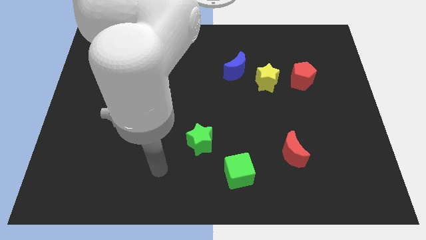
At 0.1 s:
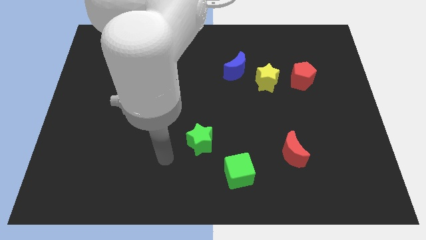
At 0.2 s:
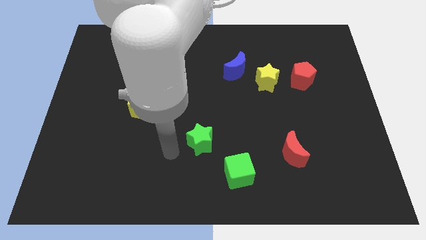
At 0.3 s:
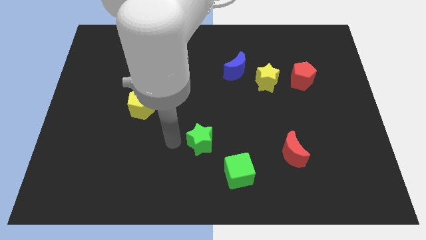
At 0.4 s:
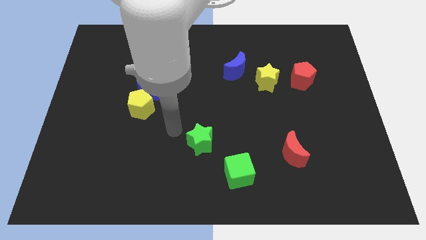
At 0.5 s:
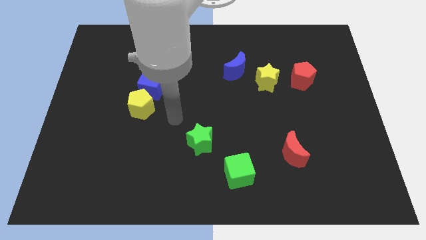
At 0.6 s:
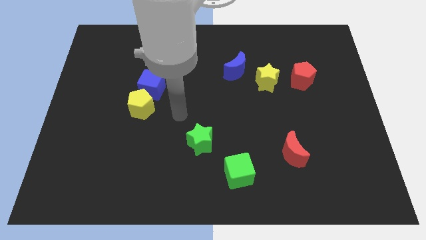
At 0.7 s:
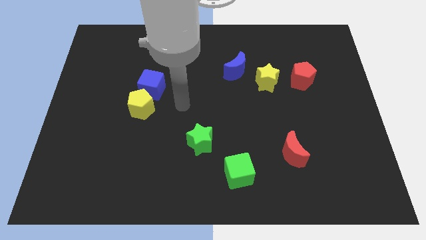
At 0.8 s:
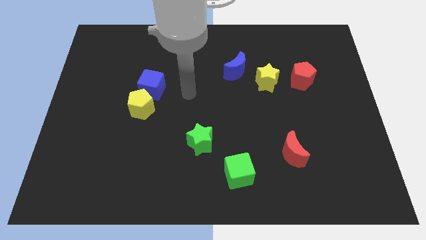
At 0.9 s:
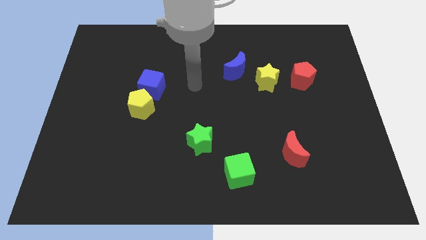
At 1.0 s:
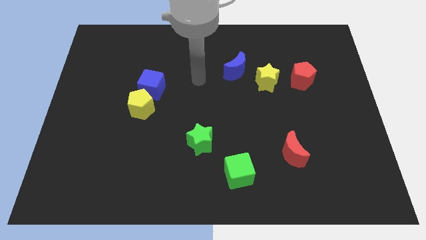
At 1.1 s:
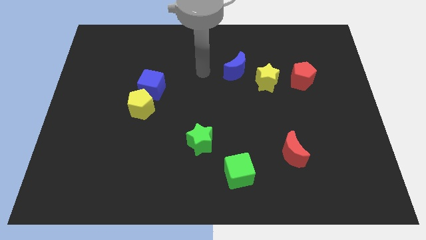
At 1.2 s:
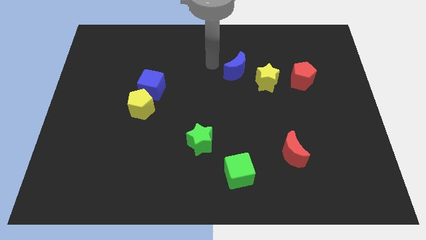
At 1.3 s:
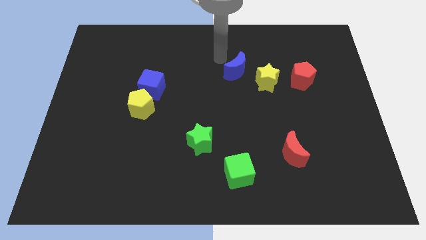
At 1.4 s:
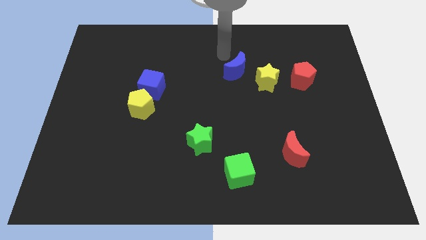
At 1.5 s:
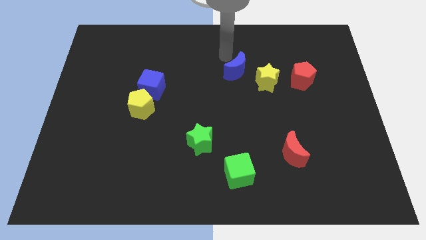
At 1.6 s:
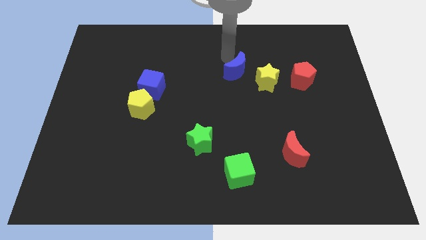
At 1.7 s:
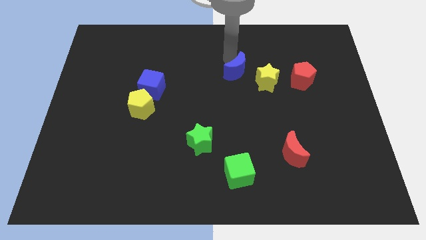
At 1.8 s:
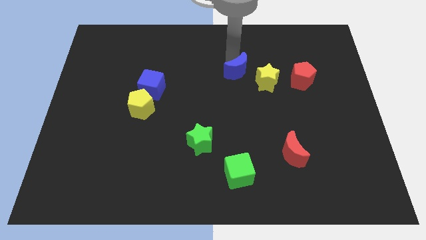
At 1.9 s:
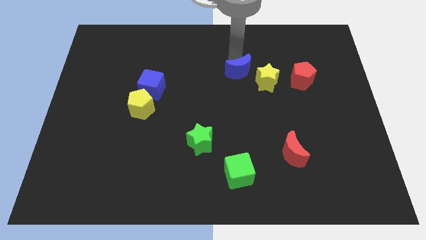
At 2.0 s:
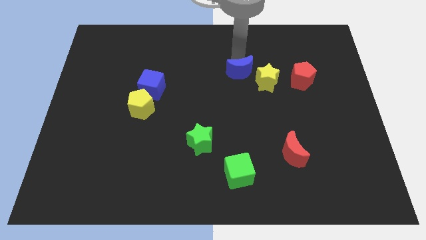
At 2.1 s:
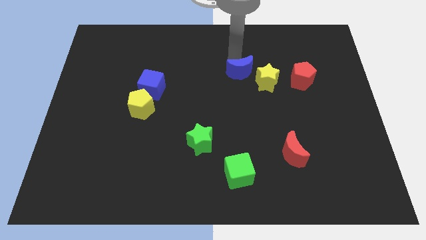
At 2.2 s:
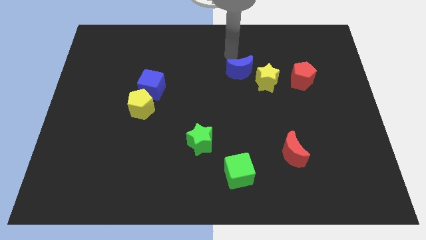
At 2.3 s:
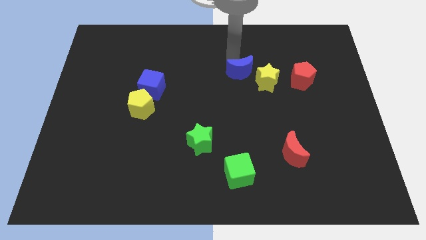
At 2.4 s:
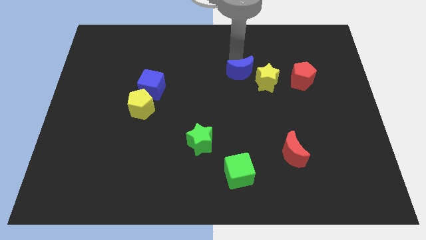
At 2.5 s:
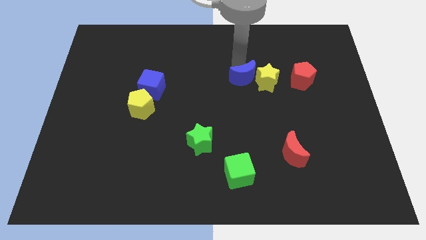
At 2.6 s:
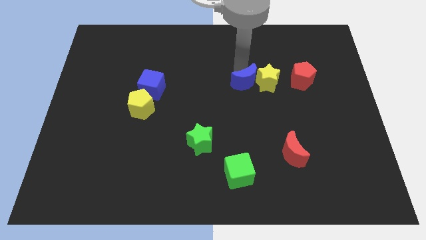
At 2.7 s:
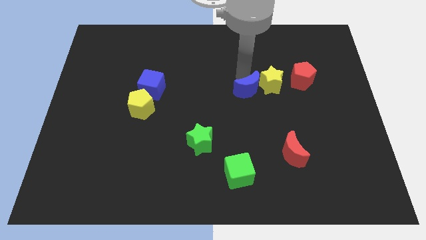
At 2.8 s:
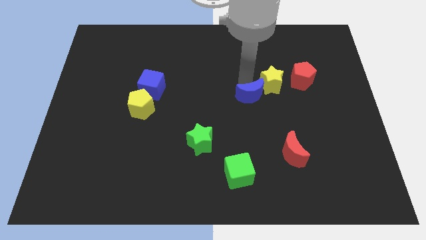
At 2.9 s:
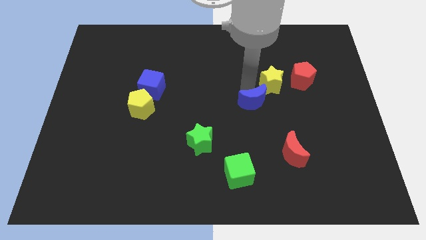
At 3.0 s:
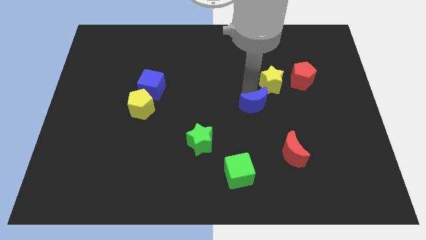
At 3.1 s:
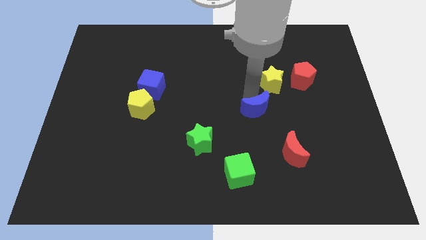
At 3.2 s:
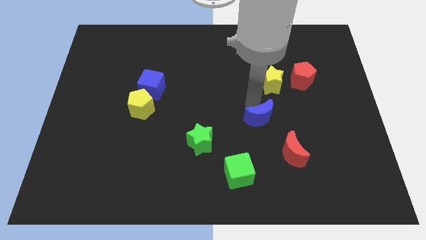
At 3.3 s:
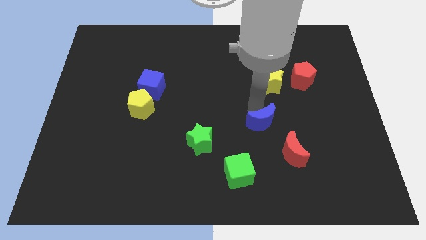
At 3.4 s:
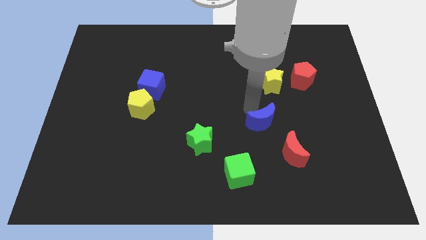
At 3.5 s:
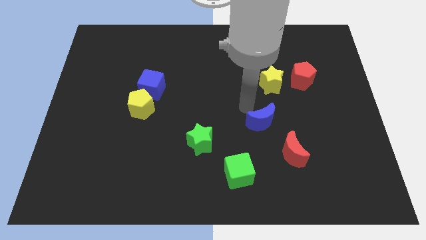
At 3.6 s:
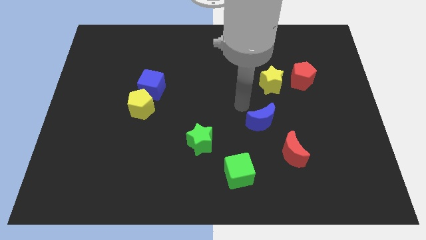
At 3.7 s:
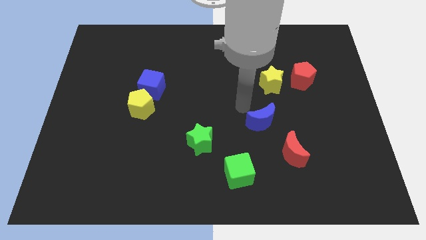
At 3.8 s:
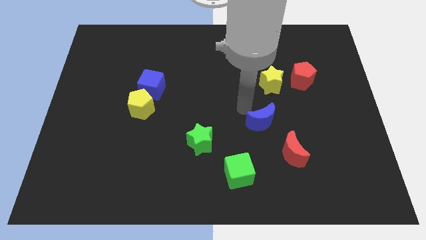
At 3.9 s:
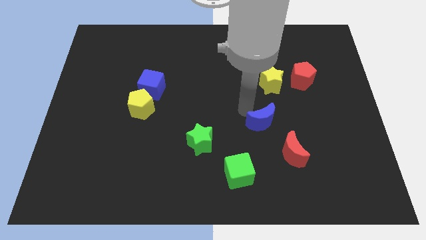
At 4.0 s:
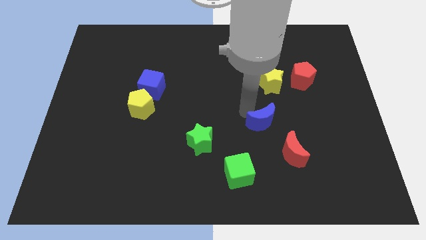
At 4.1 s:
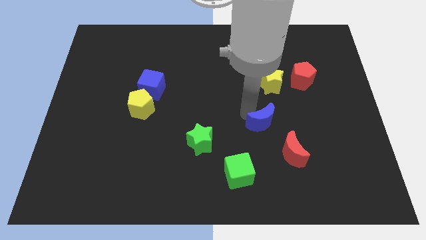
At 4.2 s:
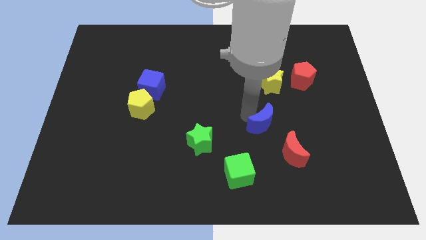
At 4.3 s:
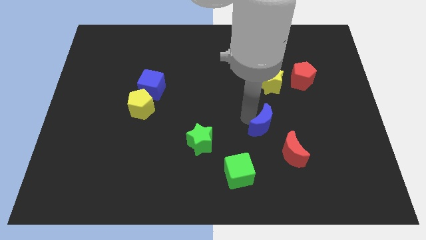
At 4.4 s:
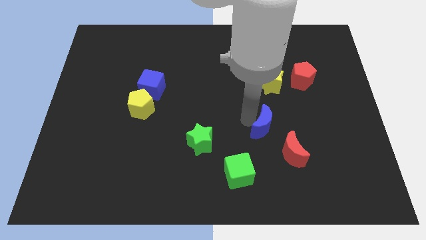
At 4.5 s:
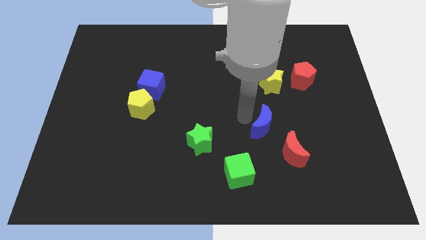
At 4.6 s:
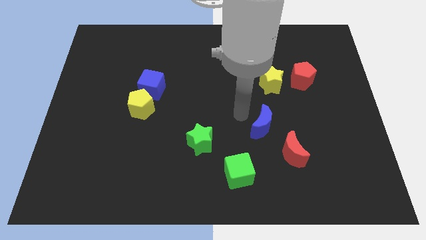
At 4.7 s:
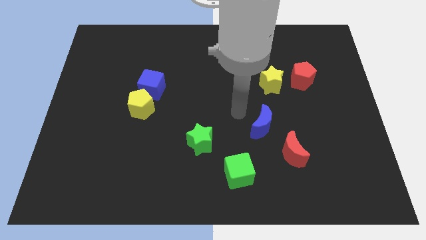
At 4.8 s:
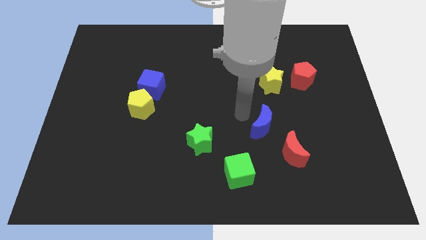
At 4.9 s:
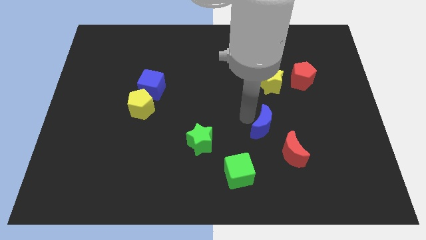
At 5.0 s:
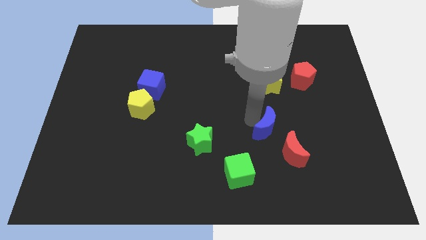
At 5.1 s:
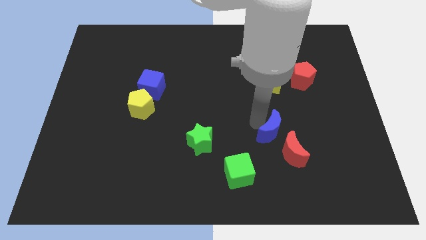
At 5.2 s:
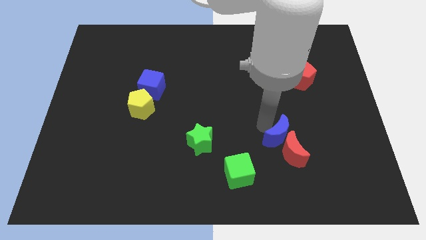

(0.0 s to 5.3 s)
slide the blue moon close to the red moon

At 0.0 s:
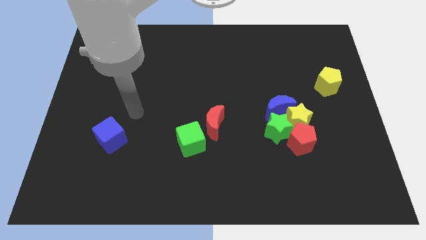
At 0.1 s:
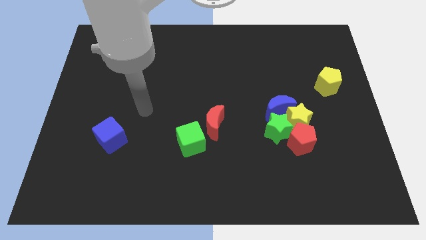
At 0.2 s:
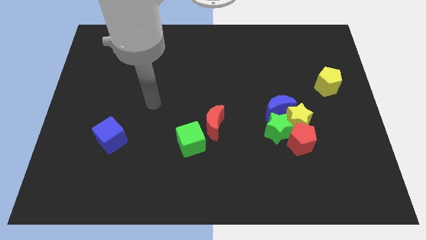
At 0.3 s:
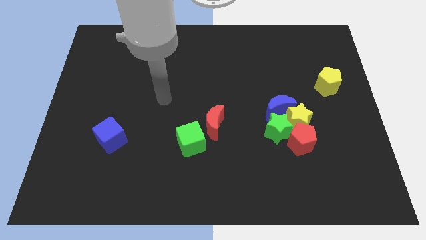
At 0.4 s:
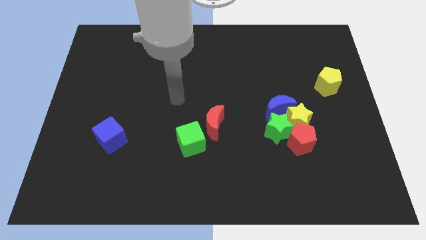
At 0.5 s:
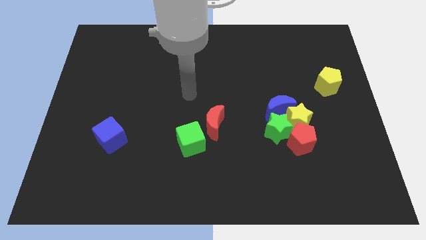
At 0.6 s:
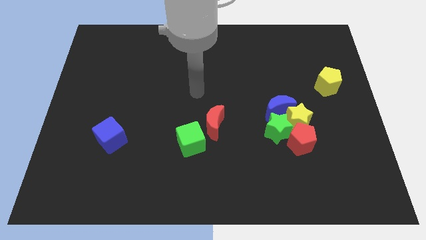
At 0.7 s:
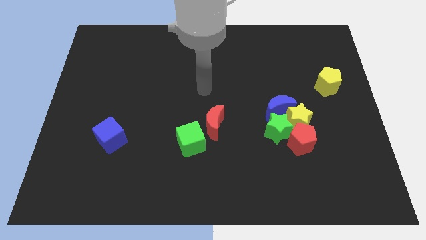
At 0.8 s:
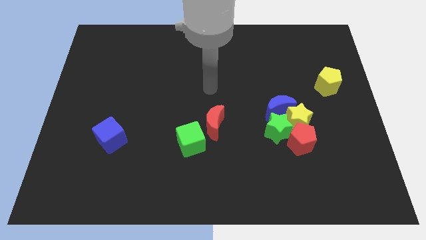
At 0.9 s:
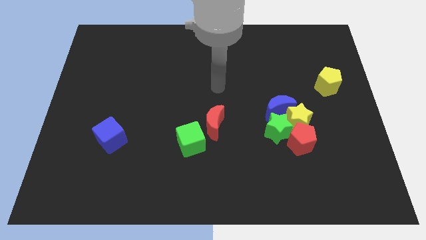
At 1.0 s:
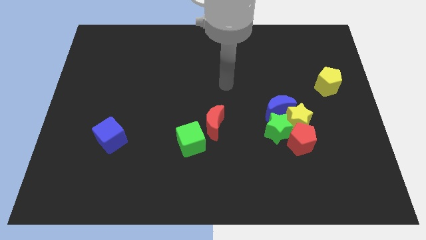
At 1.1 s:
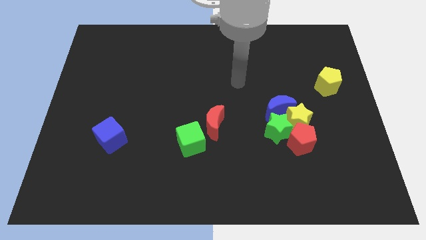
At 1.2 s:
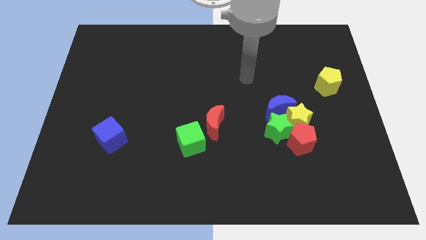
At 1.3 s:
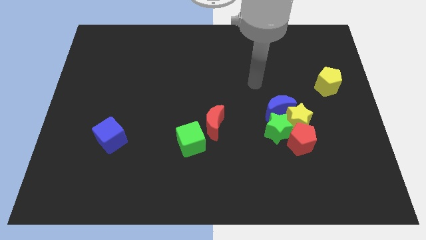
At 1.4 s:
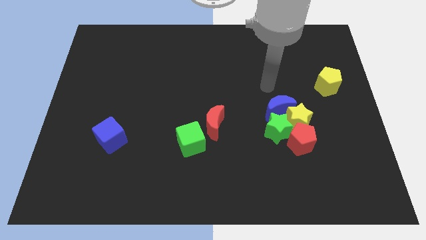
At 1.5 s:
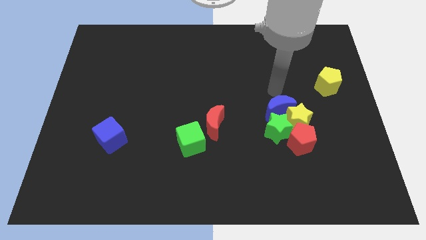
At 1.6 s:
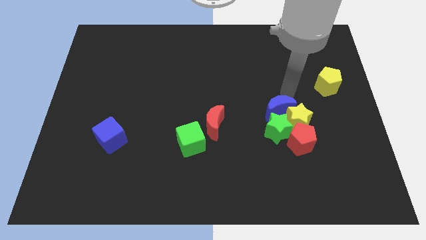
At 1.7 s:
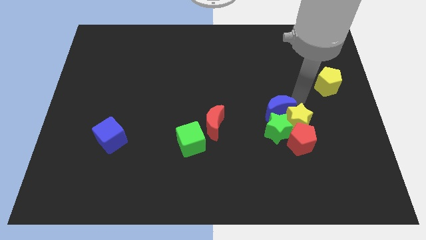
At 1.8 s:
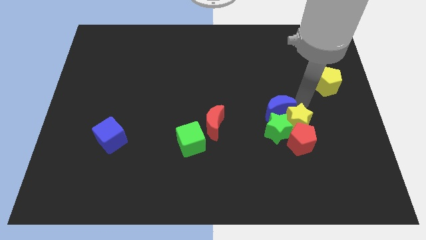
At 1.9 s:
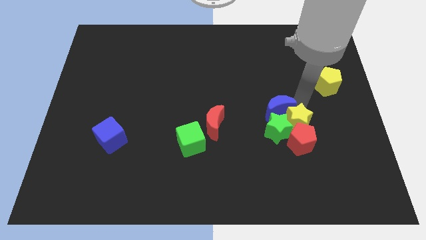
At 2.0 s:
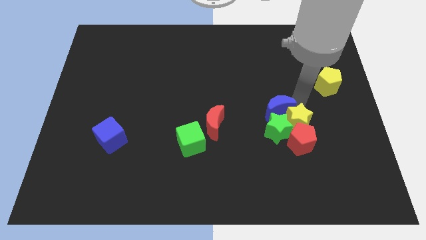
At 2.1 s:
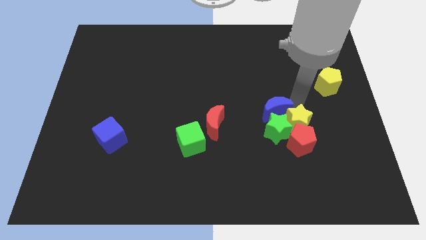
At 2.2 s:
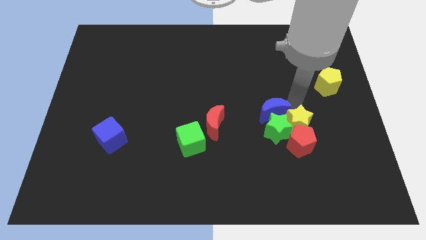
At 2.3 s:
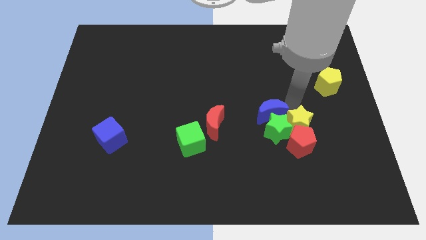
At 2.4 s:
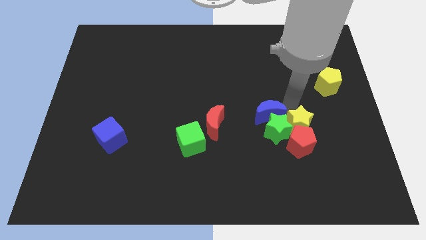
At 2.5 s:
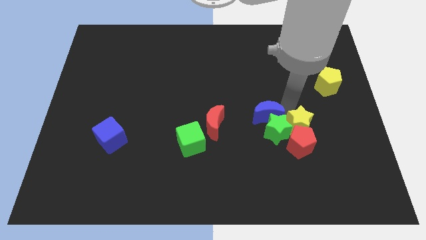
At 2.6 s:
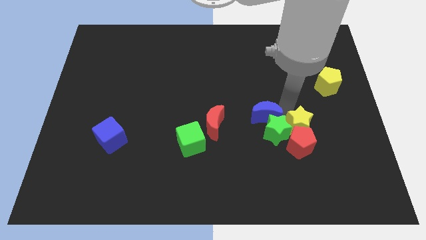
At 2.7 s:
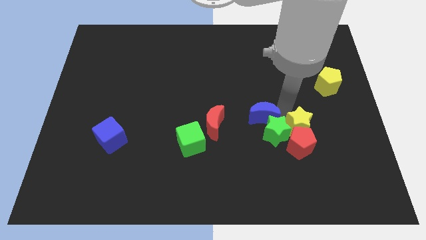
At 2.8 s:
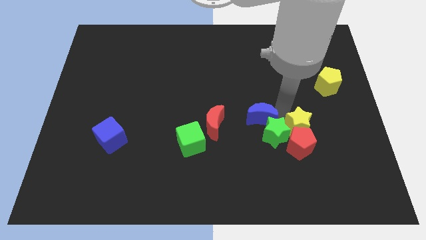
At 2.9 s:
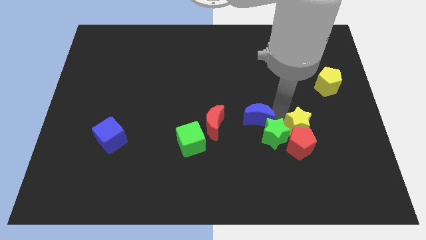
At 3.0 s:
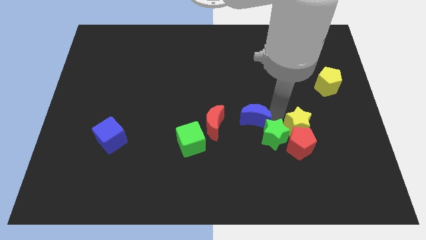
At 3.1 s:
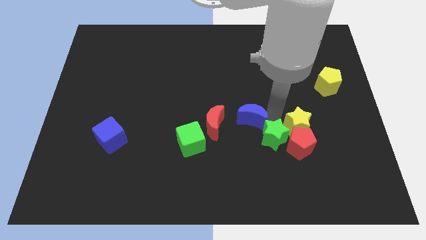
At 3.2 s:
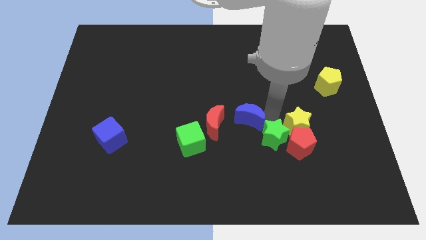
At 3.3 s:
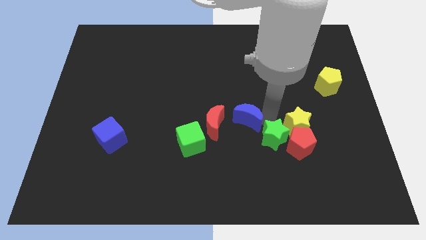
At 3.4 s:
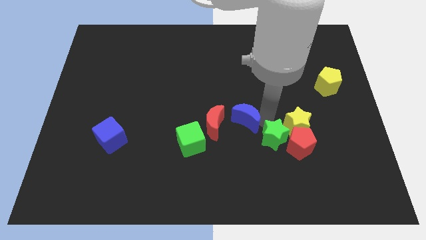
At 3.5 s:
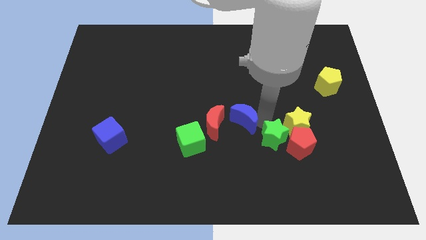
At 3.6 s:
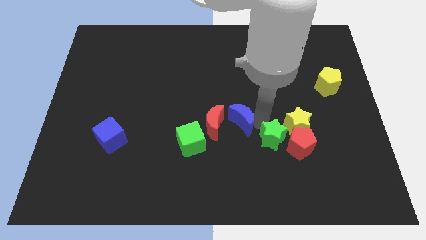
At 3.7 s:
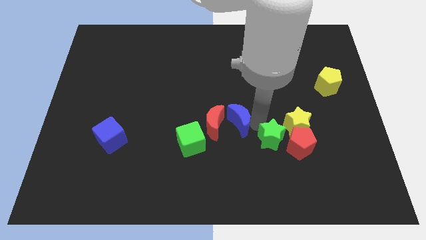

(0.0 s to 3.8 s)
put the blue moon to the red moon
